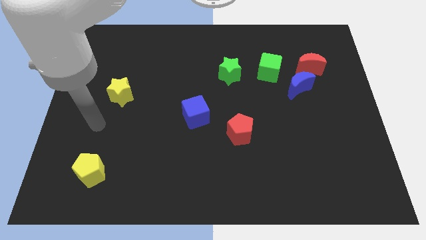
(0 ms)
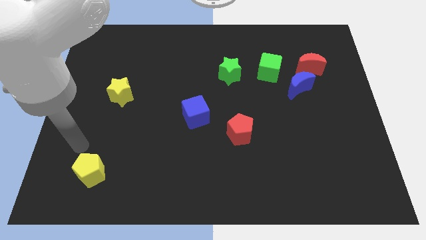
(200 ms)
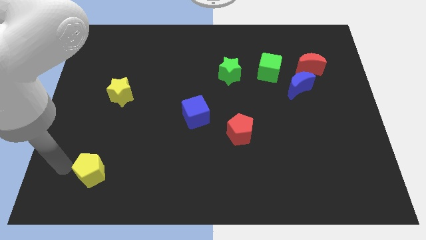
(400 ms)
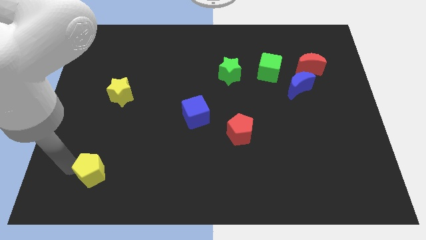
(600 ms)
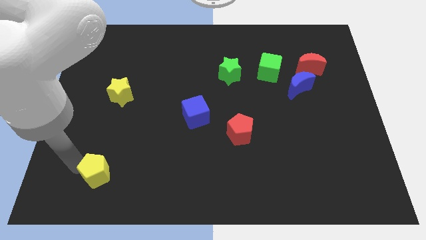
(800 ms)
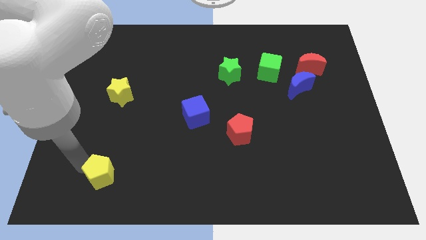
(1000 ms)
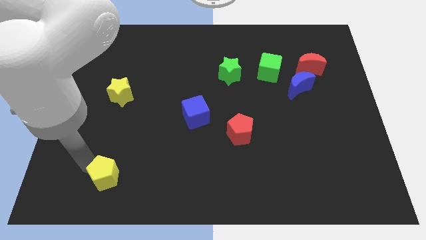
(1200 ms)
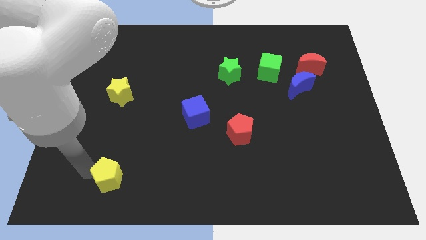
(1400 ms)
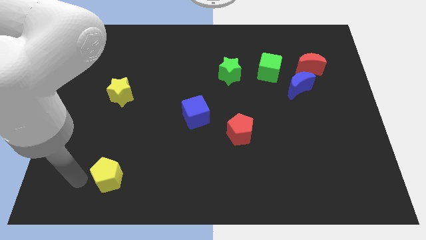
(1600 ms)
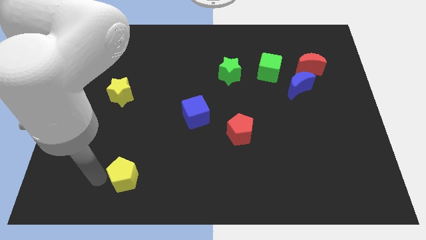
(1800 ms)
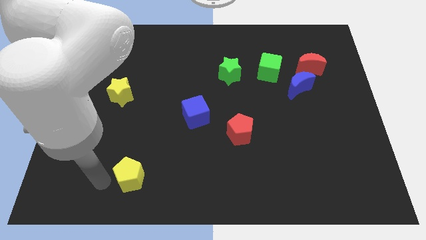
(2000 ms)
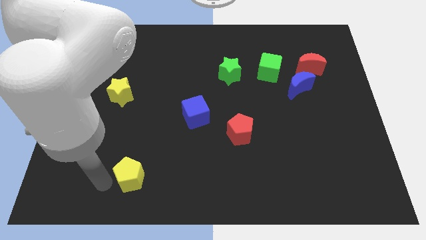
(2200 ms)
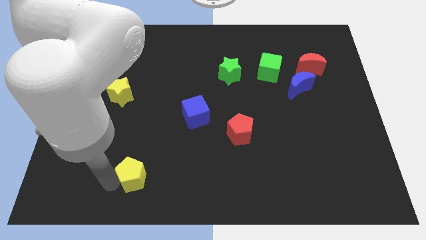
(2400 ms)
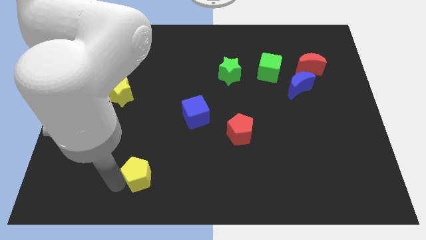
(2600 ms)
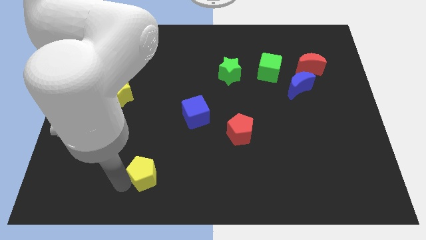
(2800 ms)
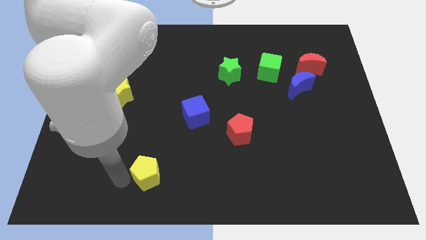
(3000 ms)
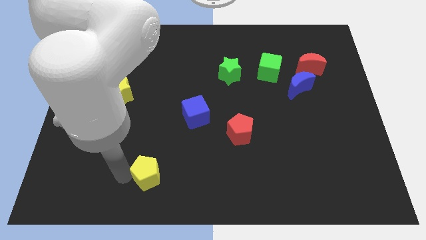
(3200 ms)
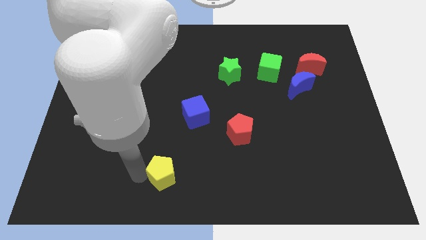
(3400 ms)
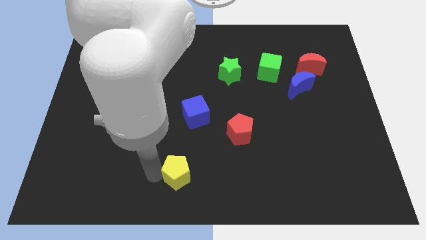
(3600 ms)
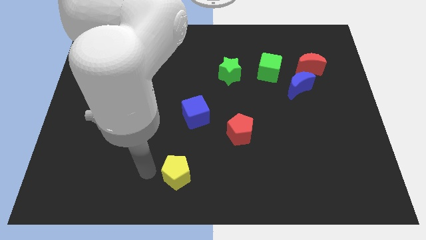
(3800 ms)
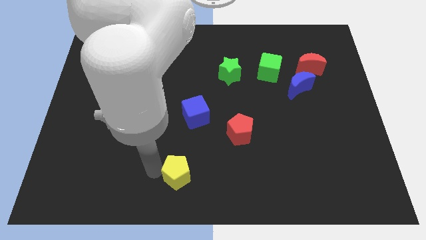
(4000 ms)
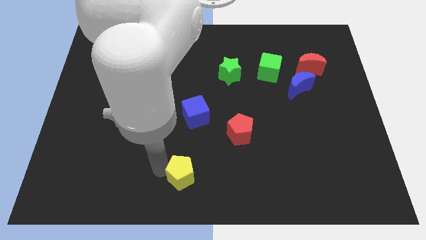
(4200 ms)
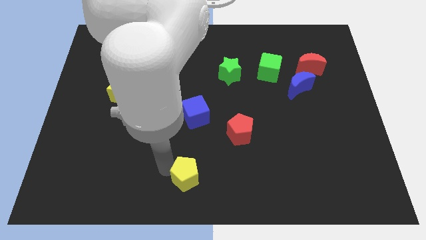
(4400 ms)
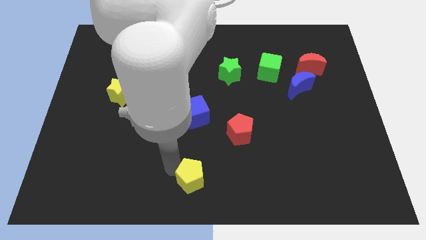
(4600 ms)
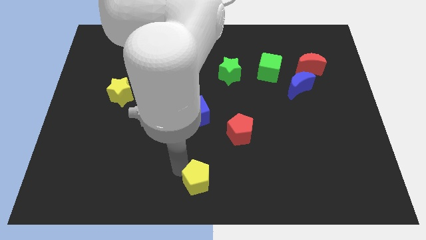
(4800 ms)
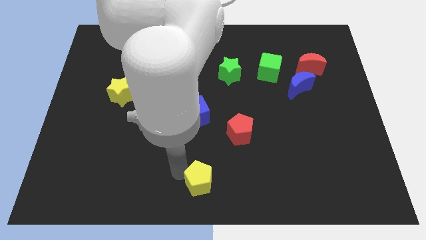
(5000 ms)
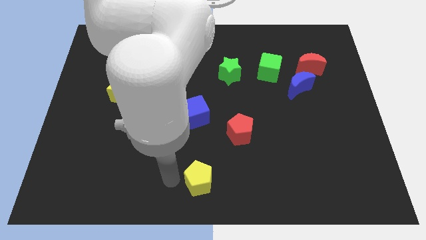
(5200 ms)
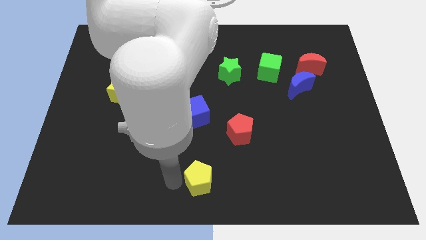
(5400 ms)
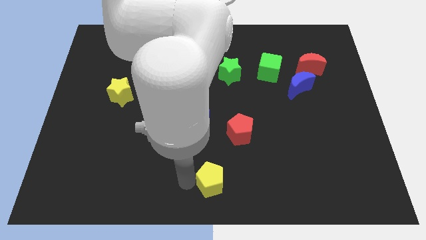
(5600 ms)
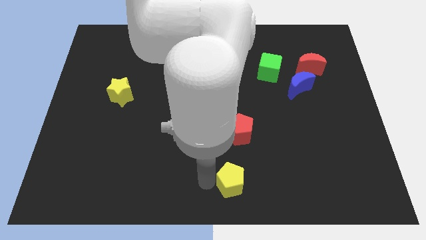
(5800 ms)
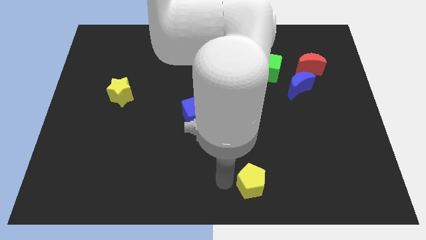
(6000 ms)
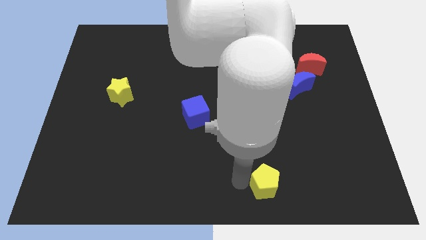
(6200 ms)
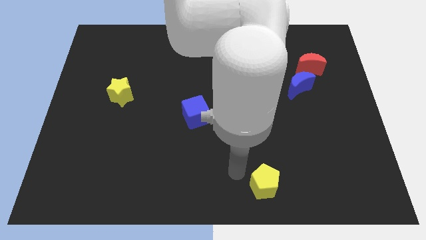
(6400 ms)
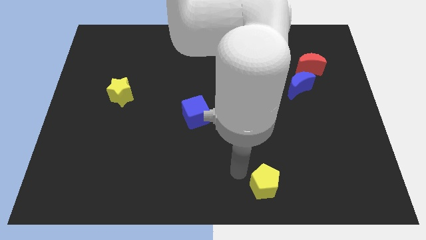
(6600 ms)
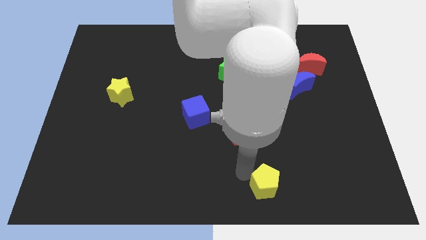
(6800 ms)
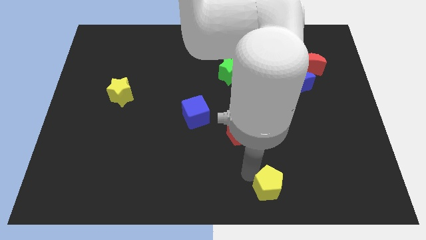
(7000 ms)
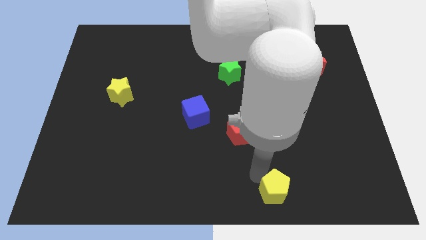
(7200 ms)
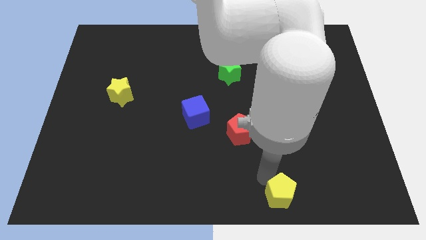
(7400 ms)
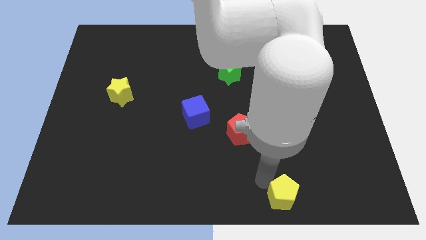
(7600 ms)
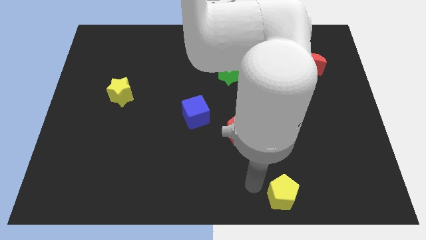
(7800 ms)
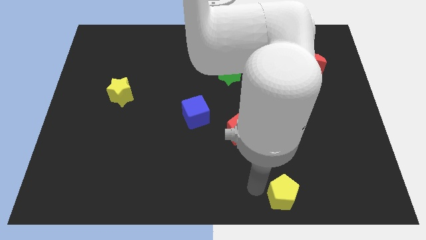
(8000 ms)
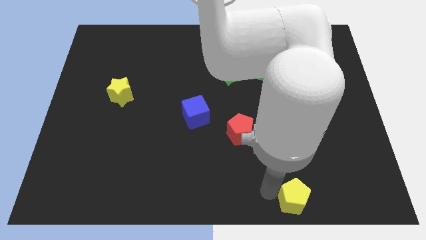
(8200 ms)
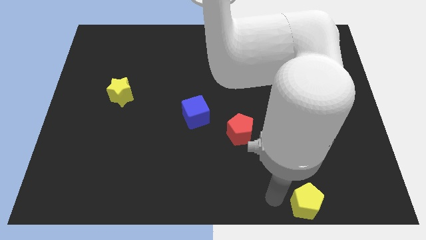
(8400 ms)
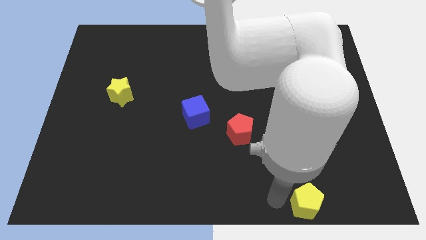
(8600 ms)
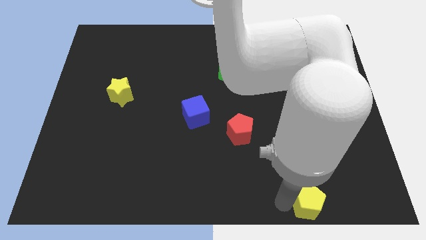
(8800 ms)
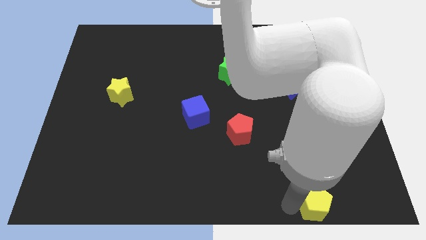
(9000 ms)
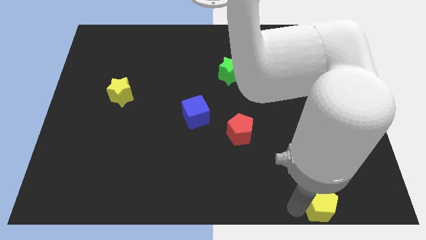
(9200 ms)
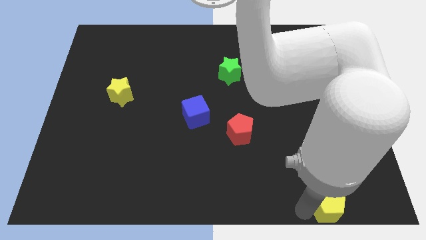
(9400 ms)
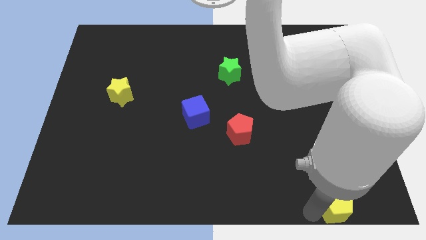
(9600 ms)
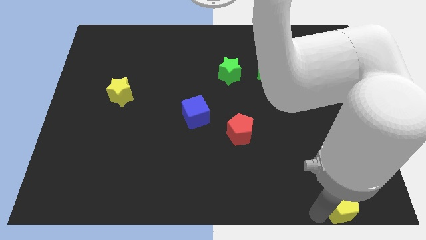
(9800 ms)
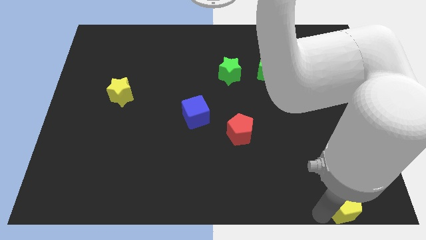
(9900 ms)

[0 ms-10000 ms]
push the yellow pentagon to the bottom right of the board

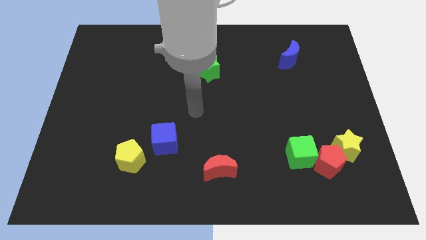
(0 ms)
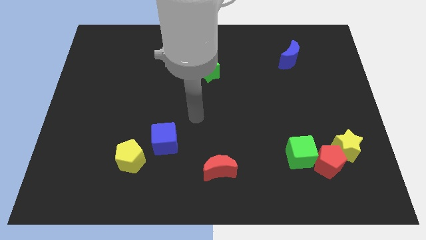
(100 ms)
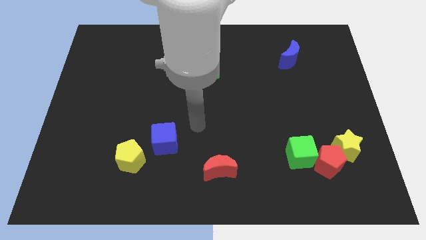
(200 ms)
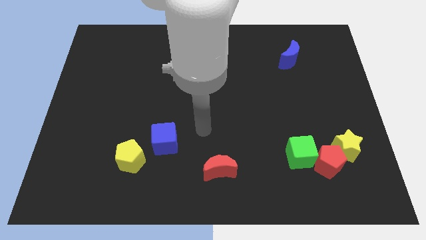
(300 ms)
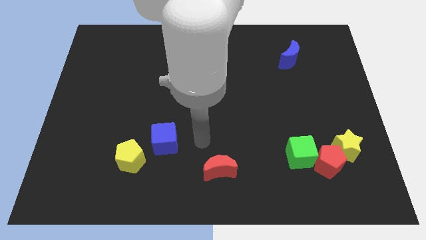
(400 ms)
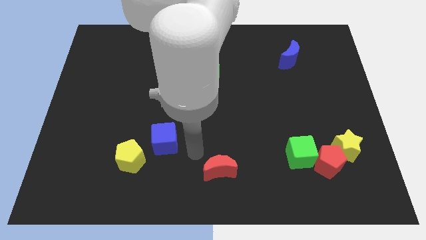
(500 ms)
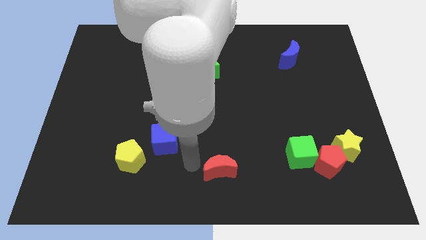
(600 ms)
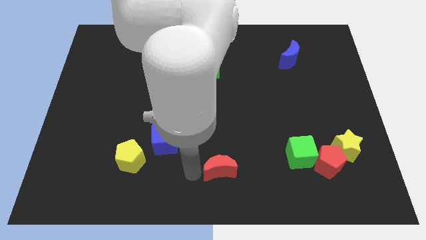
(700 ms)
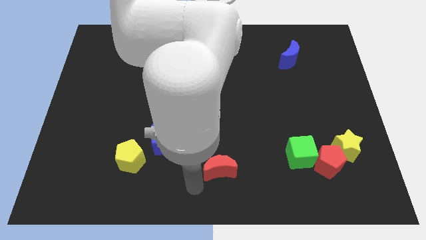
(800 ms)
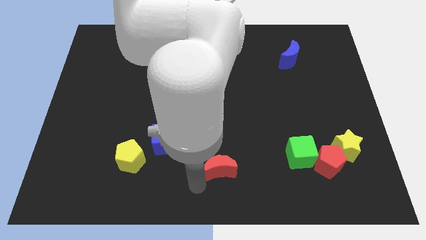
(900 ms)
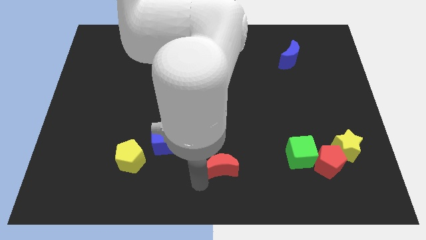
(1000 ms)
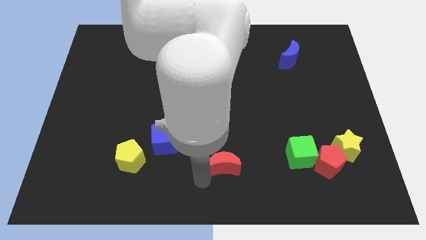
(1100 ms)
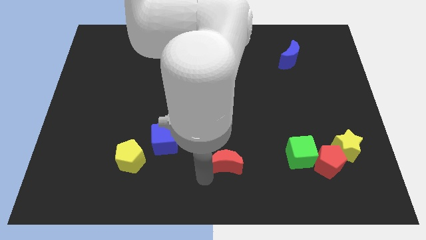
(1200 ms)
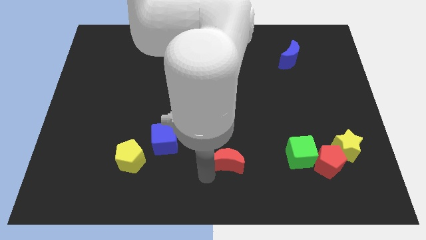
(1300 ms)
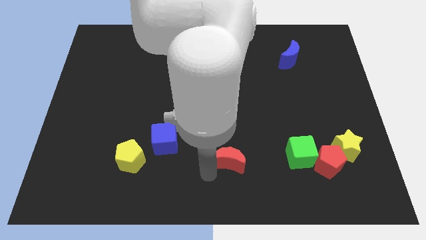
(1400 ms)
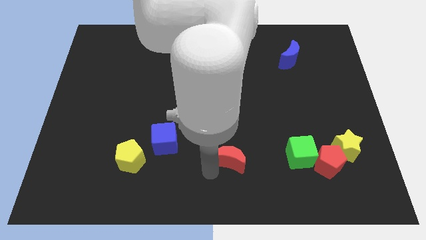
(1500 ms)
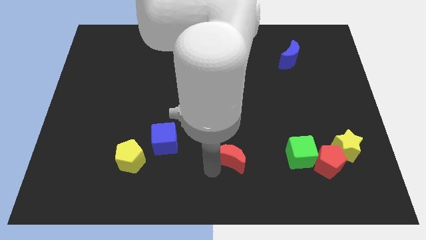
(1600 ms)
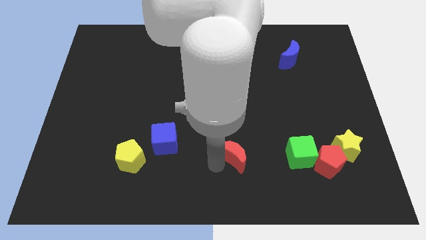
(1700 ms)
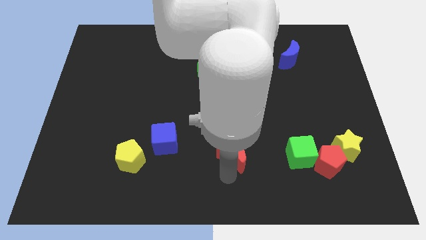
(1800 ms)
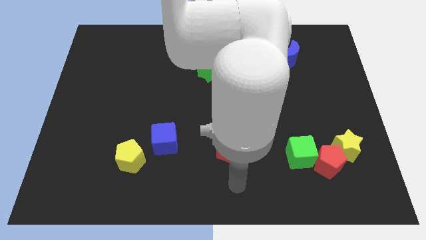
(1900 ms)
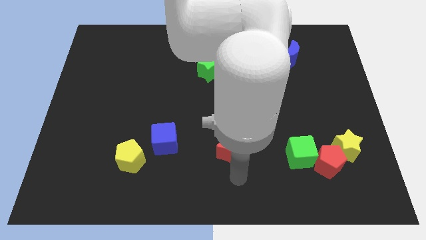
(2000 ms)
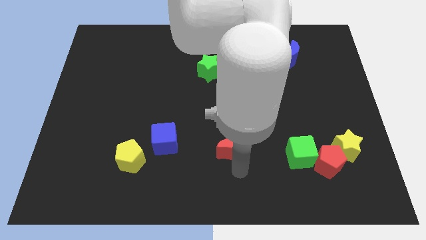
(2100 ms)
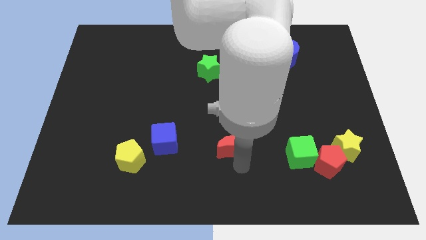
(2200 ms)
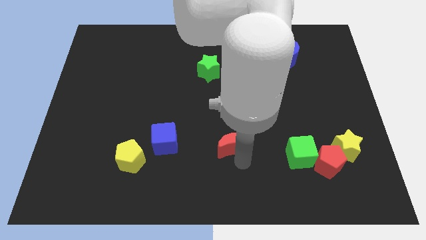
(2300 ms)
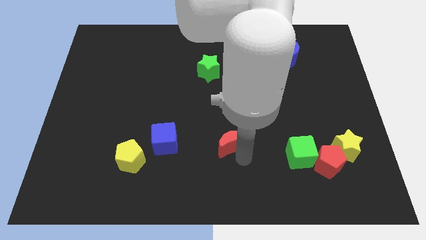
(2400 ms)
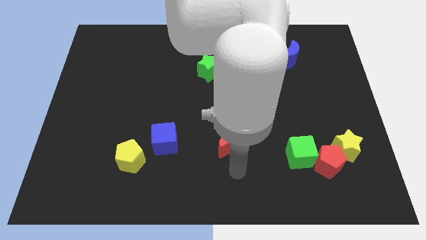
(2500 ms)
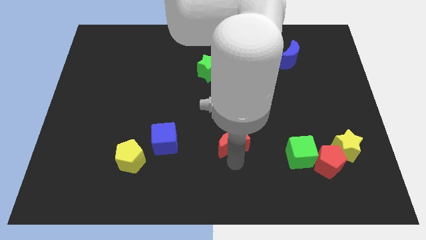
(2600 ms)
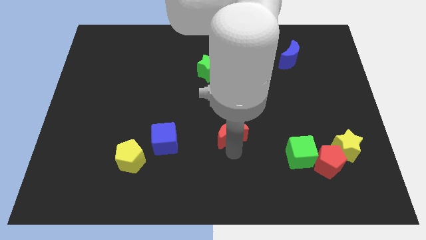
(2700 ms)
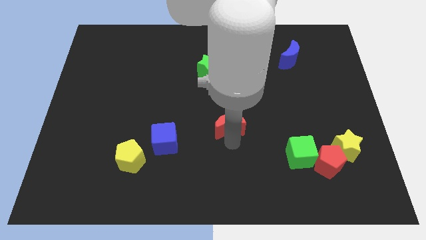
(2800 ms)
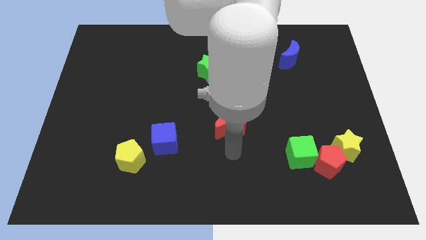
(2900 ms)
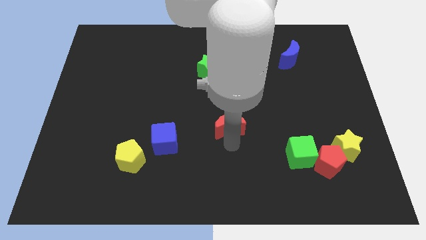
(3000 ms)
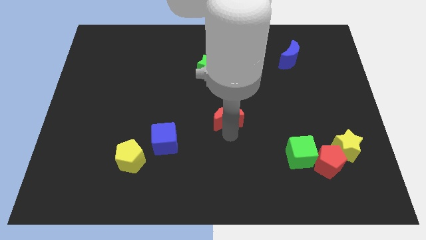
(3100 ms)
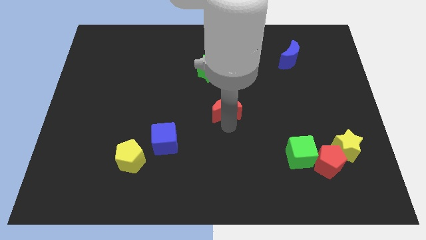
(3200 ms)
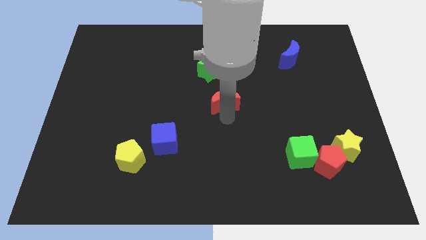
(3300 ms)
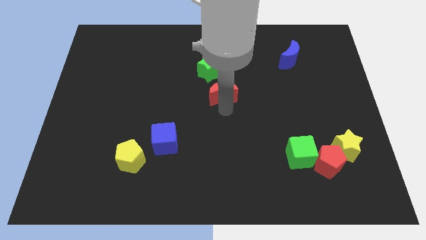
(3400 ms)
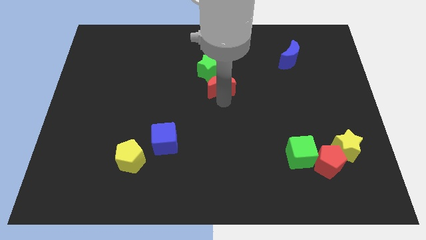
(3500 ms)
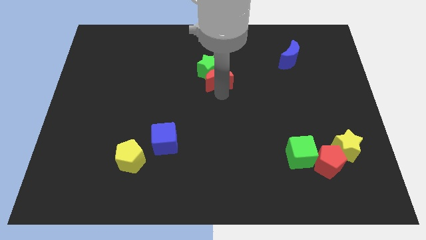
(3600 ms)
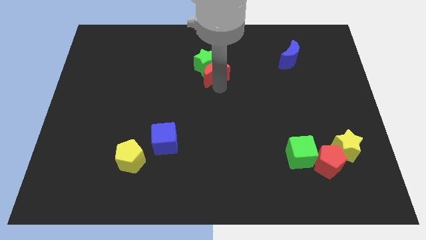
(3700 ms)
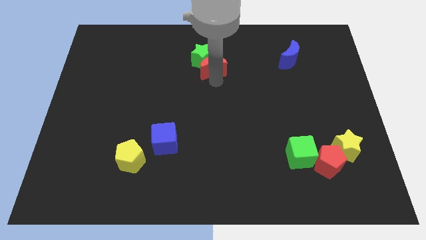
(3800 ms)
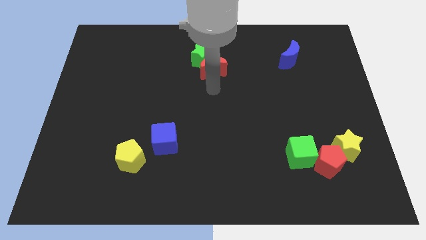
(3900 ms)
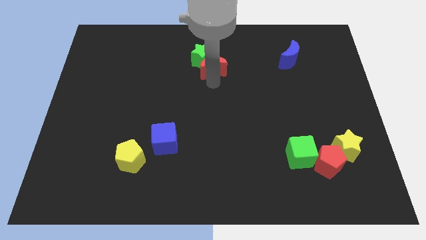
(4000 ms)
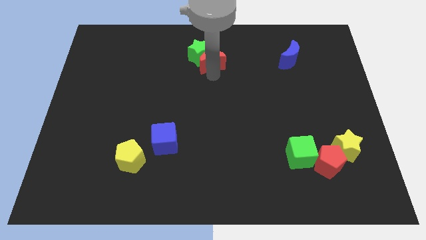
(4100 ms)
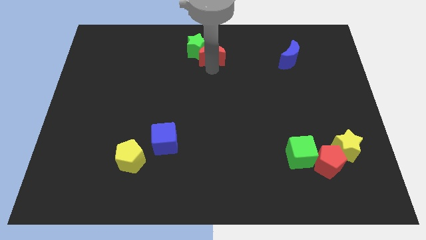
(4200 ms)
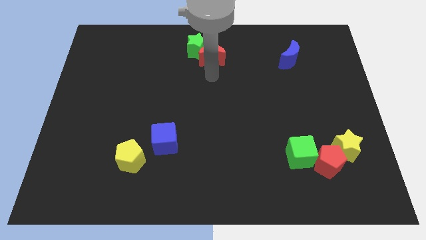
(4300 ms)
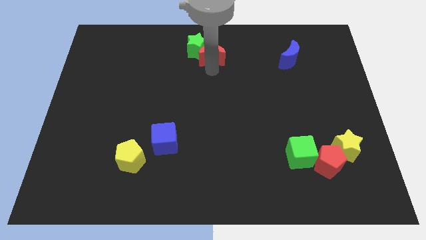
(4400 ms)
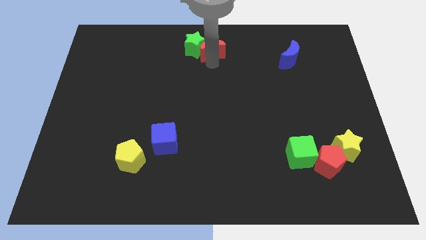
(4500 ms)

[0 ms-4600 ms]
move the red moon to the top
